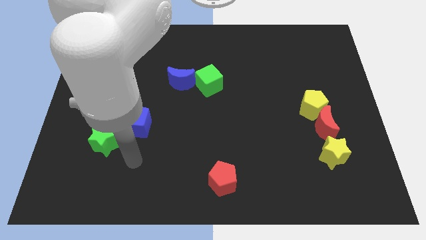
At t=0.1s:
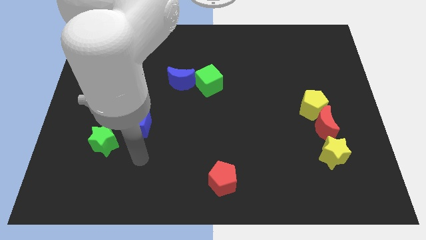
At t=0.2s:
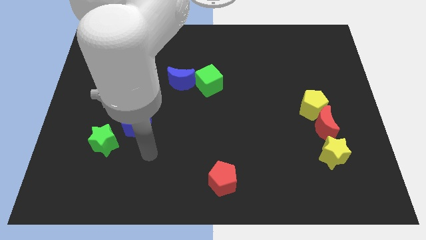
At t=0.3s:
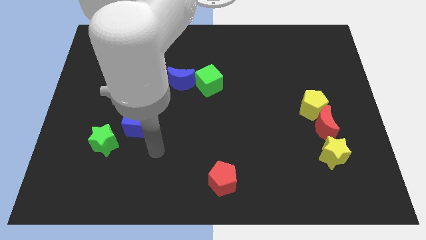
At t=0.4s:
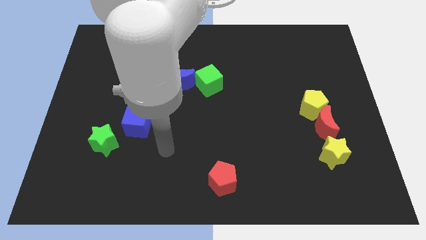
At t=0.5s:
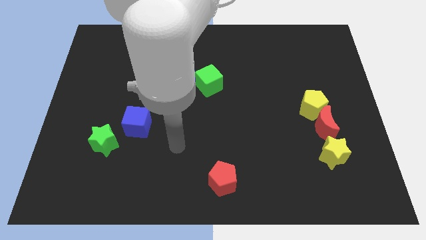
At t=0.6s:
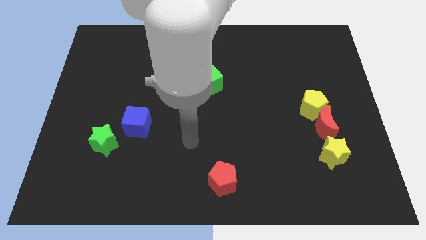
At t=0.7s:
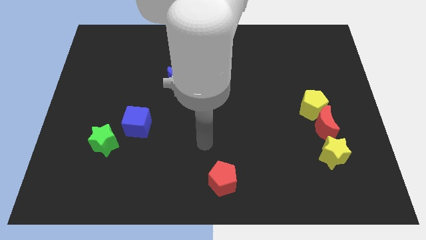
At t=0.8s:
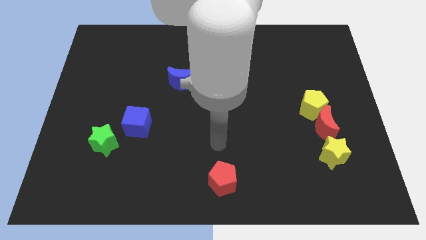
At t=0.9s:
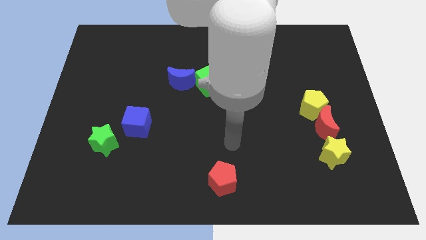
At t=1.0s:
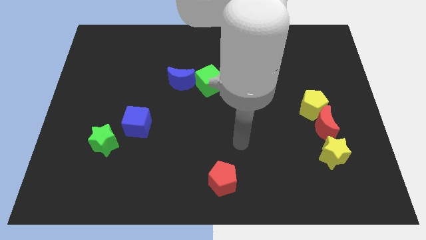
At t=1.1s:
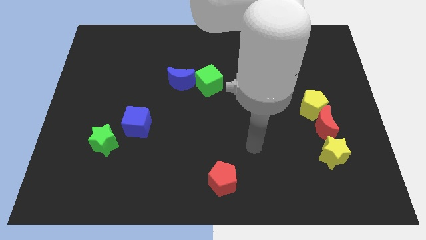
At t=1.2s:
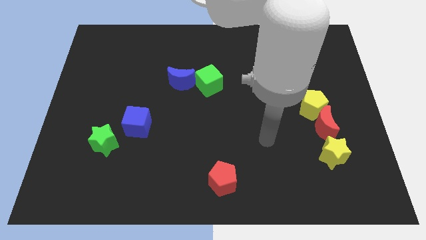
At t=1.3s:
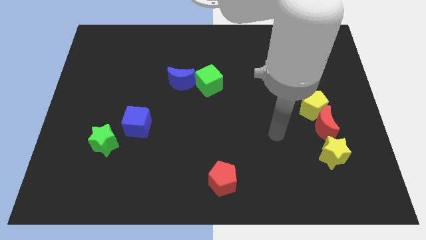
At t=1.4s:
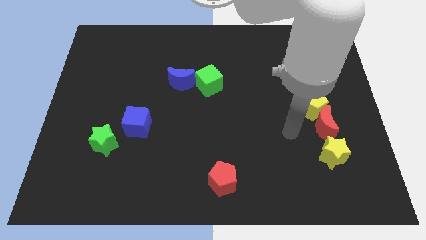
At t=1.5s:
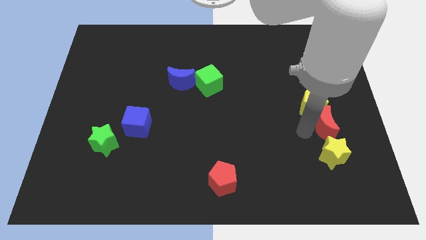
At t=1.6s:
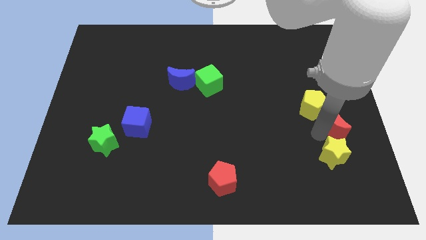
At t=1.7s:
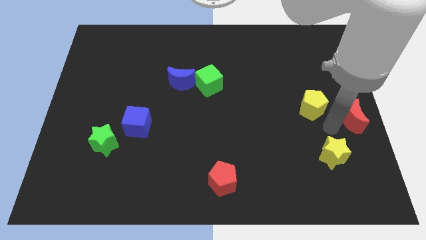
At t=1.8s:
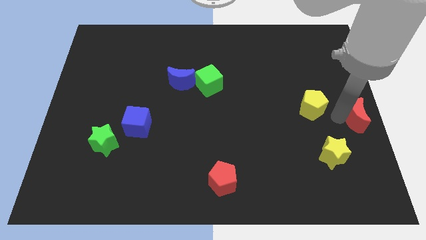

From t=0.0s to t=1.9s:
separate the yellow pentagon from the red moon

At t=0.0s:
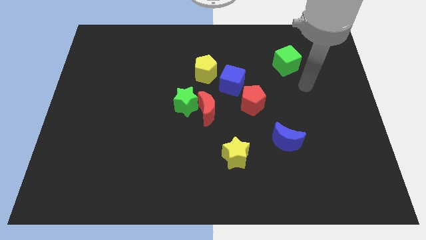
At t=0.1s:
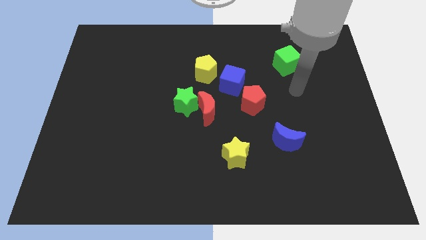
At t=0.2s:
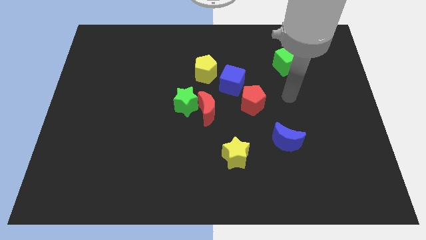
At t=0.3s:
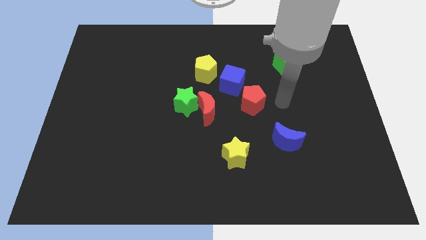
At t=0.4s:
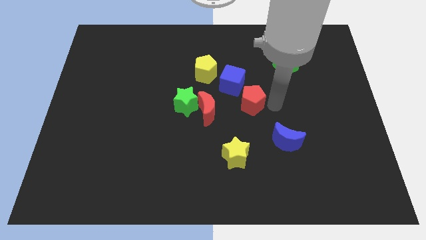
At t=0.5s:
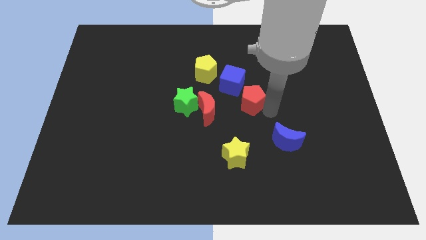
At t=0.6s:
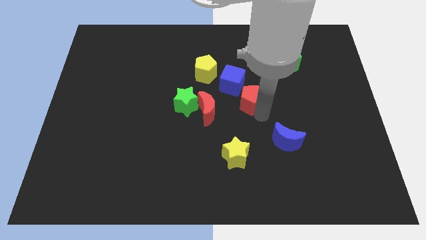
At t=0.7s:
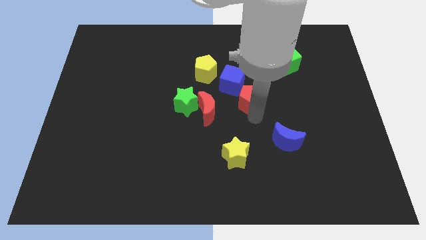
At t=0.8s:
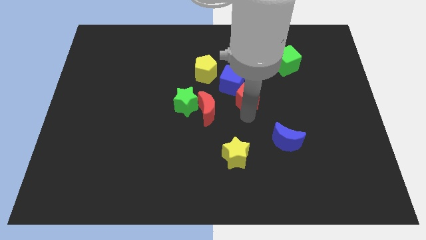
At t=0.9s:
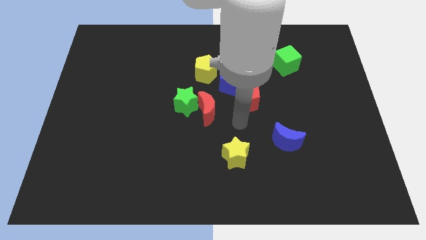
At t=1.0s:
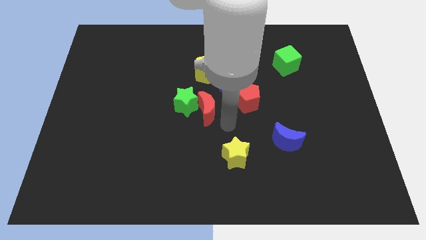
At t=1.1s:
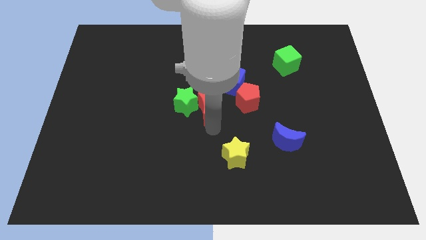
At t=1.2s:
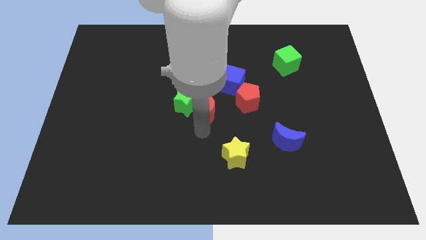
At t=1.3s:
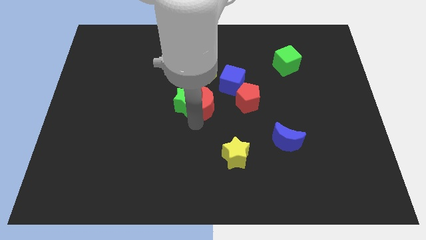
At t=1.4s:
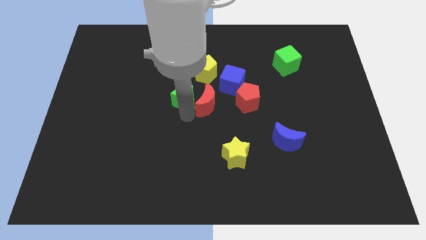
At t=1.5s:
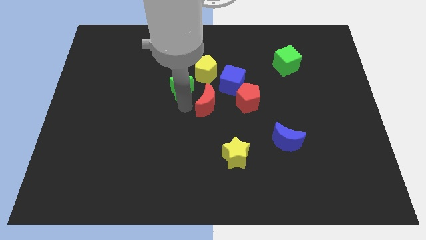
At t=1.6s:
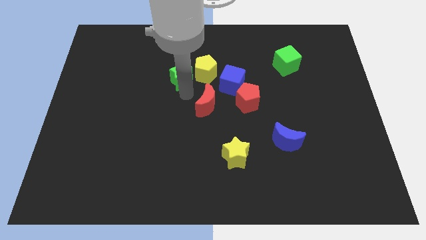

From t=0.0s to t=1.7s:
separate the red moon from the green star

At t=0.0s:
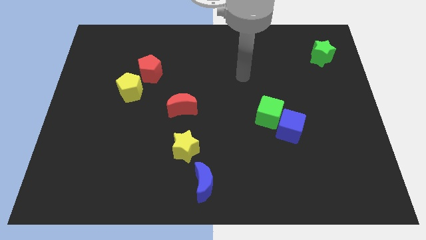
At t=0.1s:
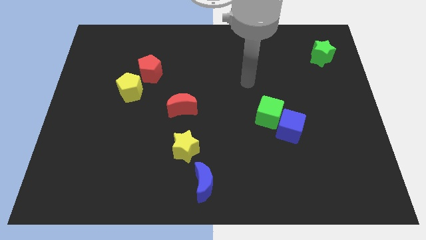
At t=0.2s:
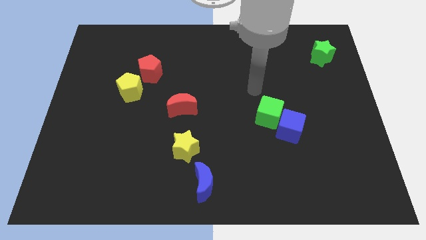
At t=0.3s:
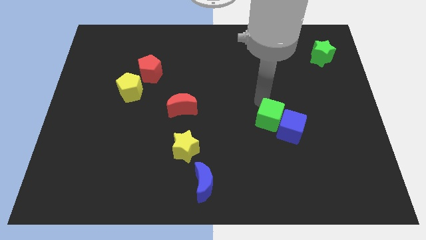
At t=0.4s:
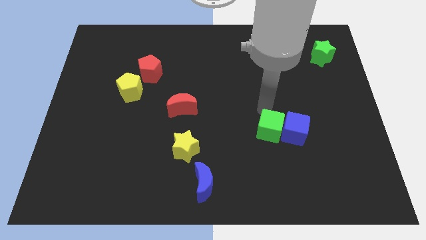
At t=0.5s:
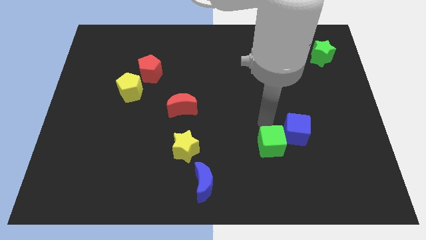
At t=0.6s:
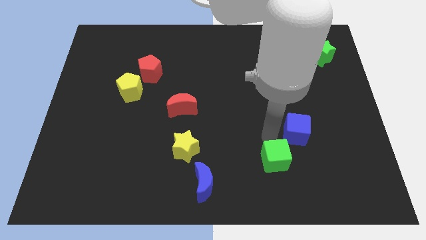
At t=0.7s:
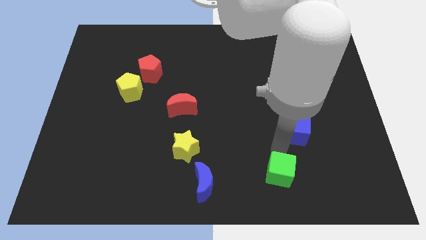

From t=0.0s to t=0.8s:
pull the blue cube apart from the green cube

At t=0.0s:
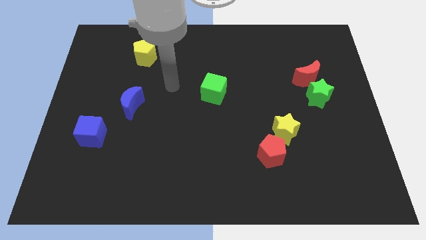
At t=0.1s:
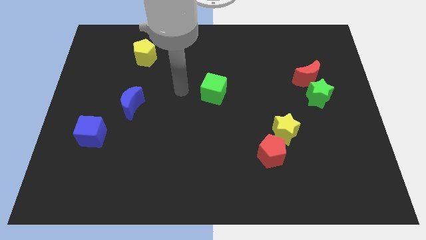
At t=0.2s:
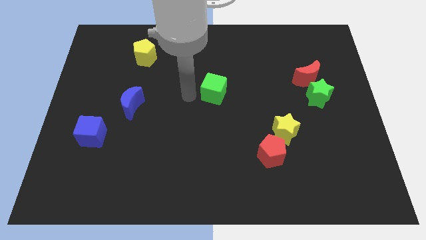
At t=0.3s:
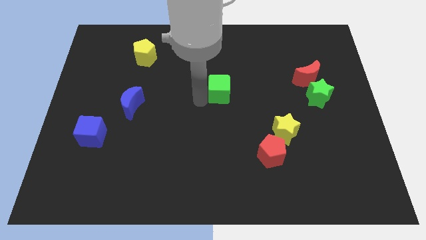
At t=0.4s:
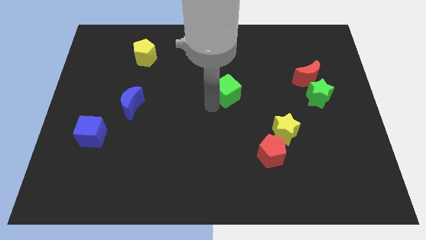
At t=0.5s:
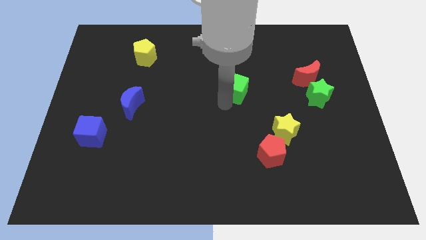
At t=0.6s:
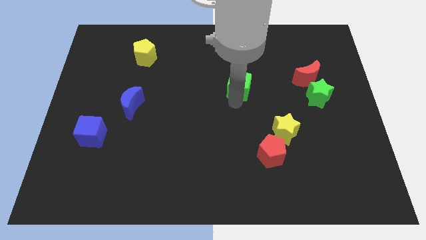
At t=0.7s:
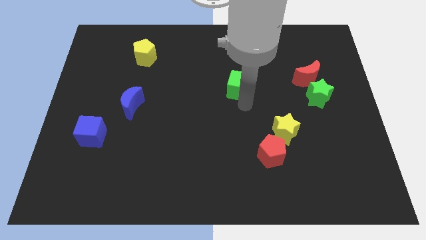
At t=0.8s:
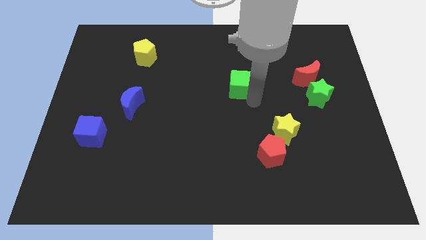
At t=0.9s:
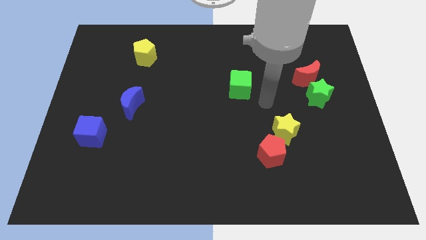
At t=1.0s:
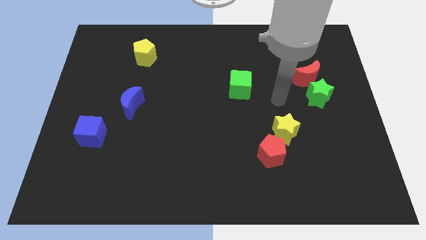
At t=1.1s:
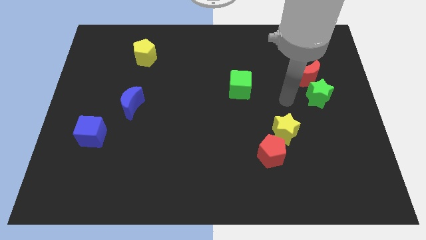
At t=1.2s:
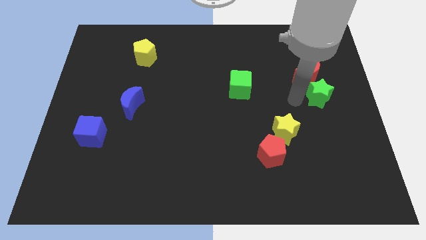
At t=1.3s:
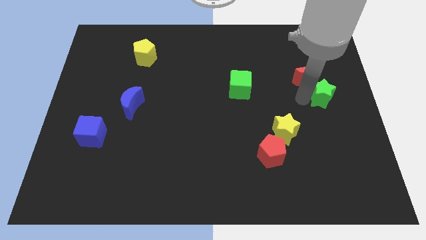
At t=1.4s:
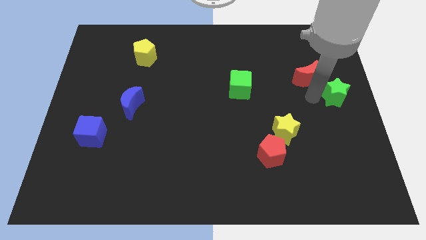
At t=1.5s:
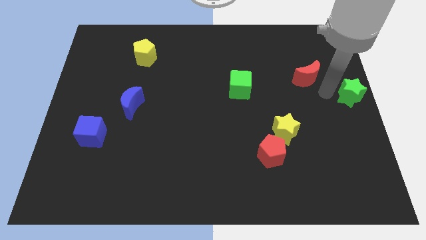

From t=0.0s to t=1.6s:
pull the red moon apart from the green star

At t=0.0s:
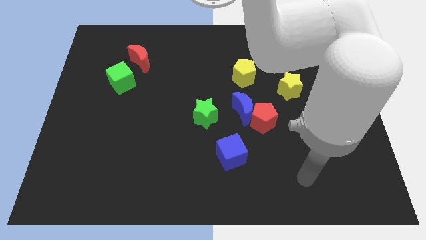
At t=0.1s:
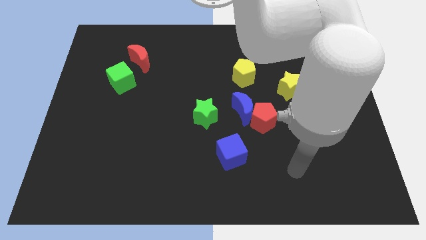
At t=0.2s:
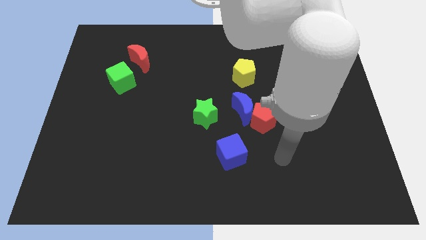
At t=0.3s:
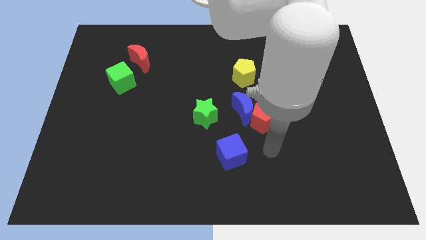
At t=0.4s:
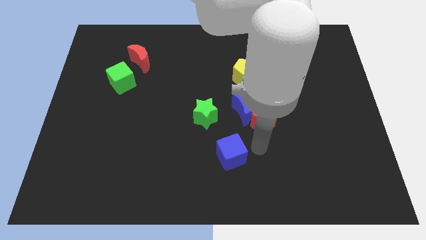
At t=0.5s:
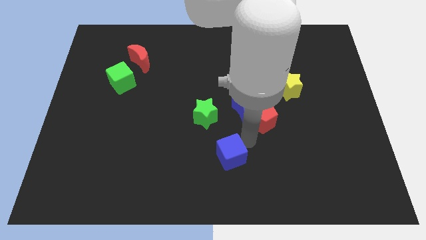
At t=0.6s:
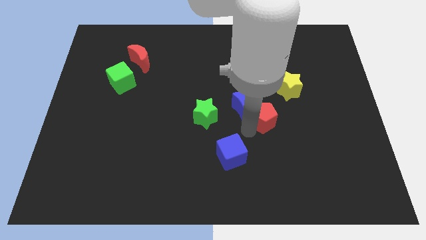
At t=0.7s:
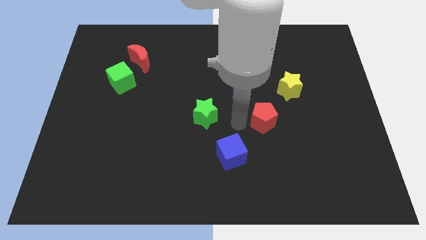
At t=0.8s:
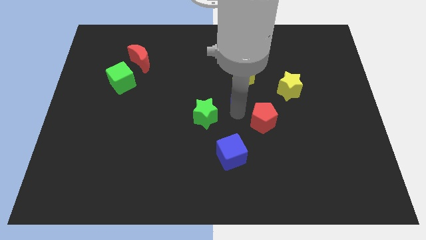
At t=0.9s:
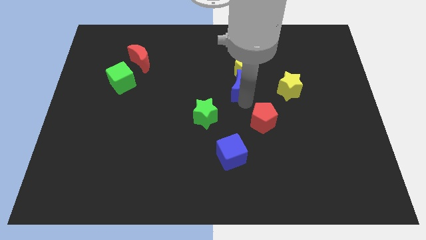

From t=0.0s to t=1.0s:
pull the red pentagon apart from the blue moon

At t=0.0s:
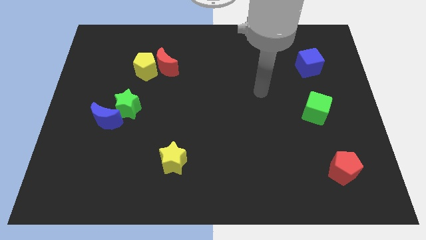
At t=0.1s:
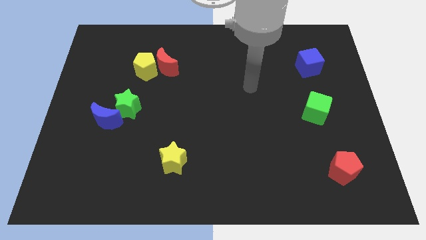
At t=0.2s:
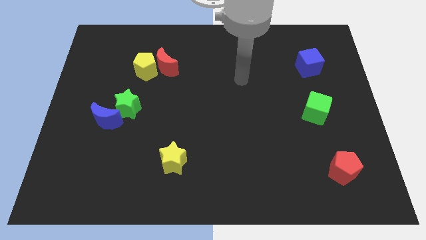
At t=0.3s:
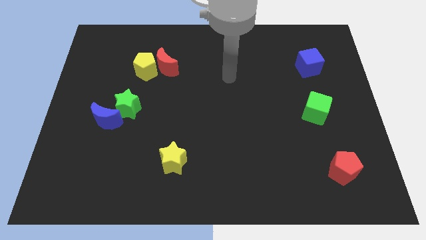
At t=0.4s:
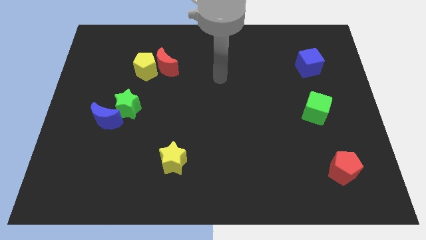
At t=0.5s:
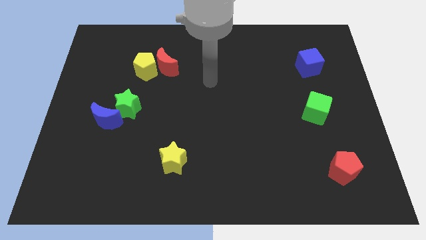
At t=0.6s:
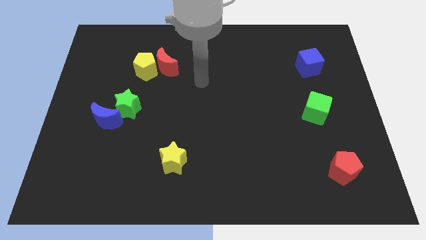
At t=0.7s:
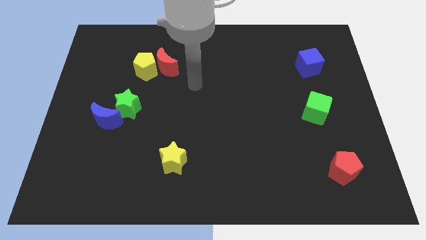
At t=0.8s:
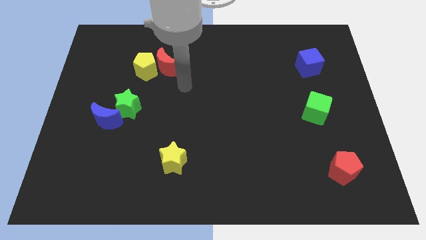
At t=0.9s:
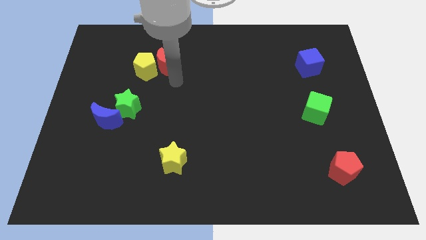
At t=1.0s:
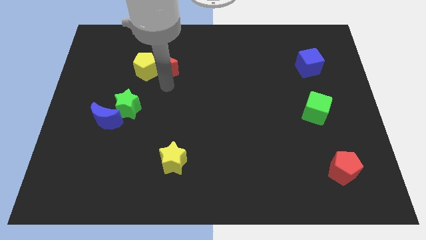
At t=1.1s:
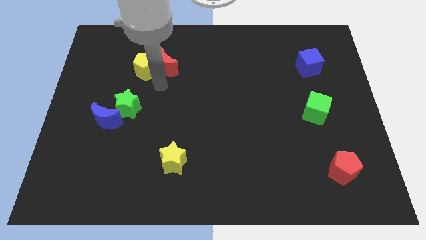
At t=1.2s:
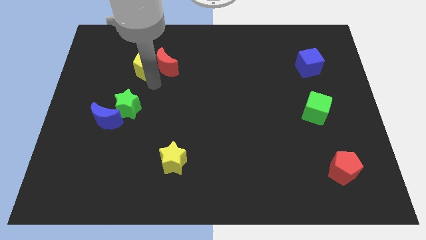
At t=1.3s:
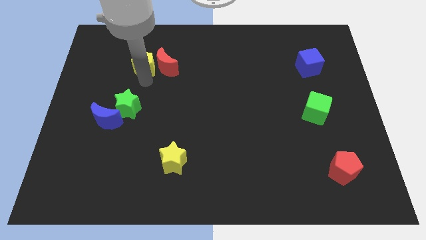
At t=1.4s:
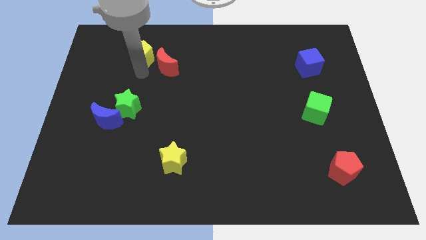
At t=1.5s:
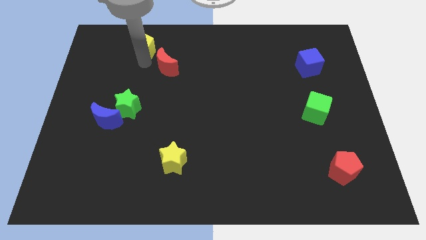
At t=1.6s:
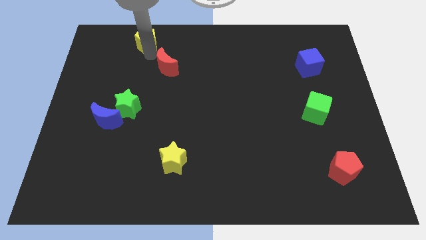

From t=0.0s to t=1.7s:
move the red moon away from the yellow pentagon

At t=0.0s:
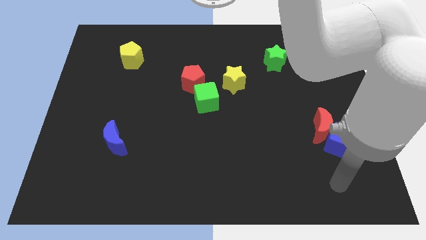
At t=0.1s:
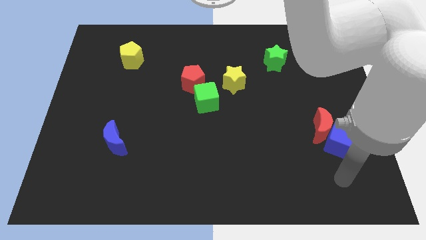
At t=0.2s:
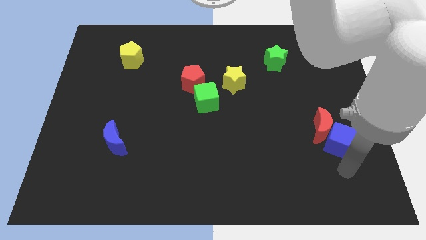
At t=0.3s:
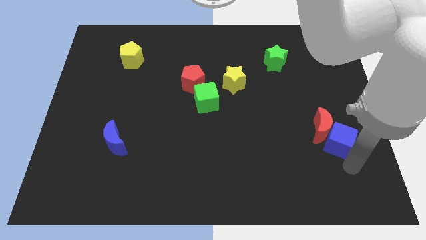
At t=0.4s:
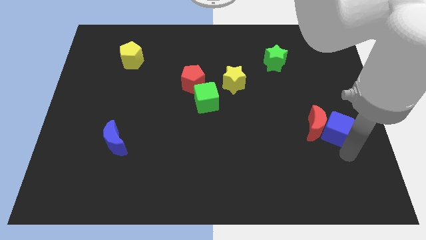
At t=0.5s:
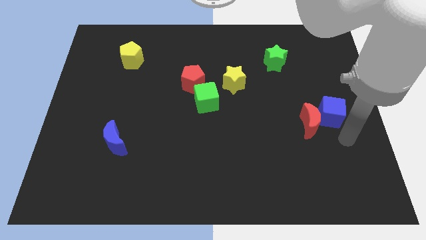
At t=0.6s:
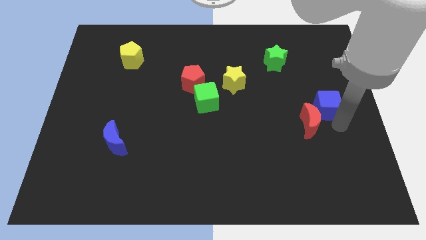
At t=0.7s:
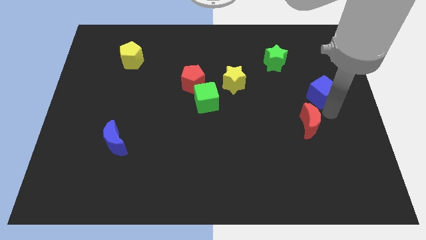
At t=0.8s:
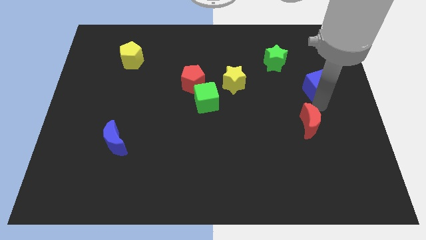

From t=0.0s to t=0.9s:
move the red moon away from the blue cube
